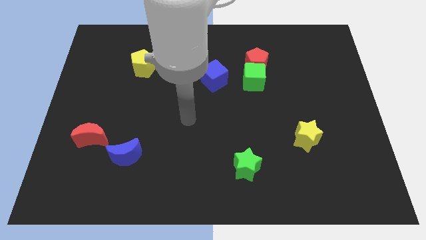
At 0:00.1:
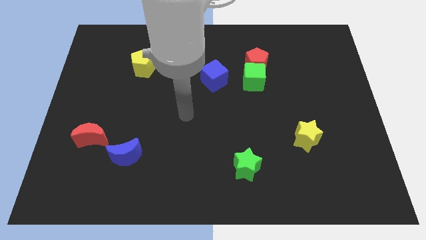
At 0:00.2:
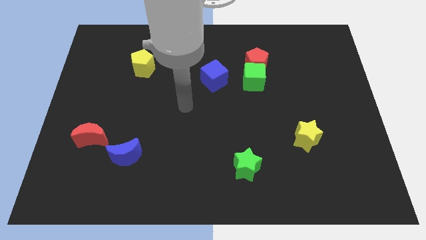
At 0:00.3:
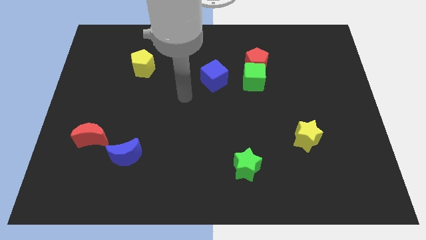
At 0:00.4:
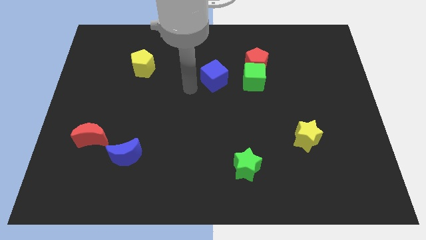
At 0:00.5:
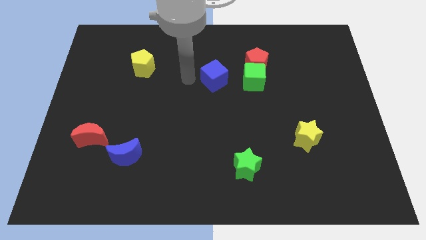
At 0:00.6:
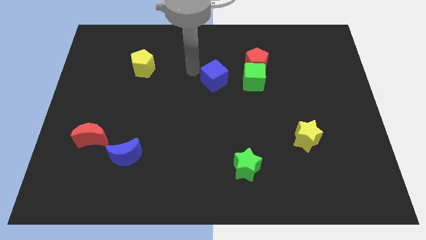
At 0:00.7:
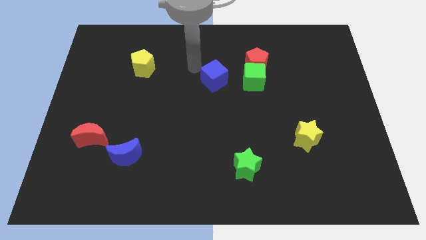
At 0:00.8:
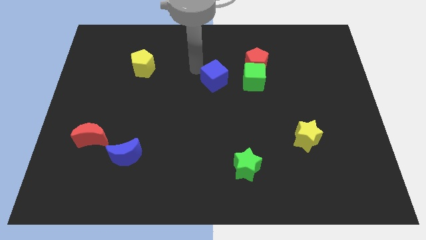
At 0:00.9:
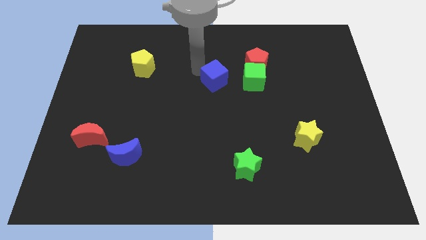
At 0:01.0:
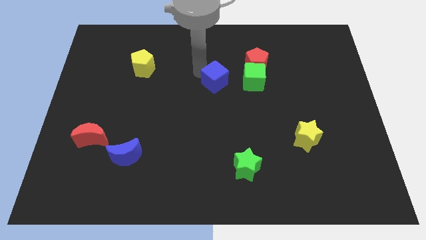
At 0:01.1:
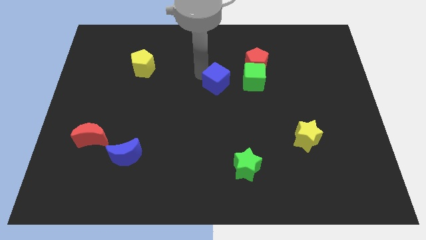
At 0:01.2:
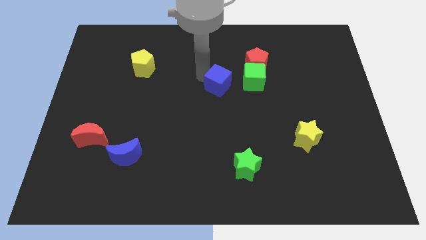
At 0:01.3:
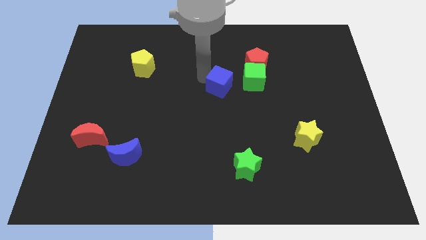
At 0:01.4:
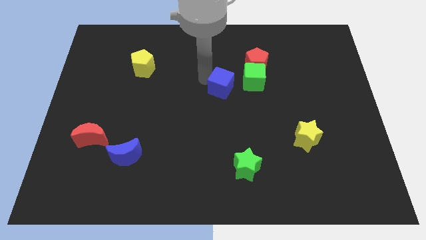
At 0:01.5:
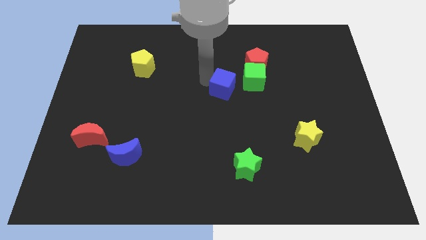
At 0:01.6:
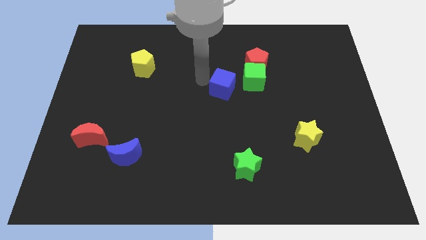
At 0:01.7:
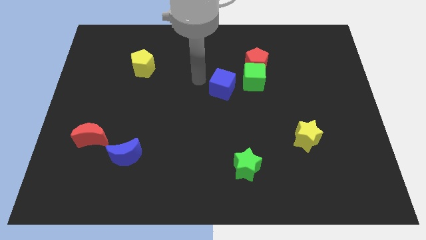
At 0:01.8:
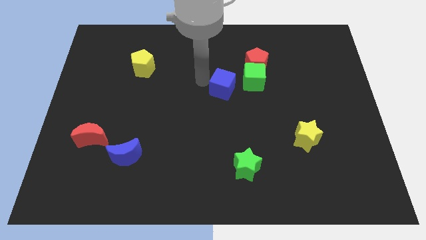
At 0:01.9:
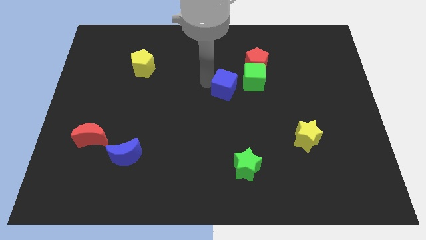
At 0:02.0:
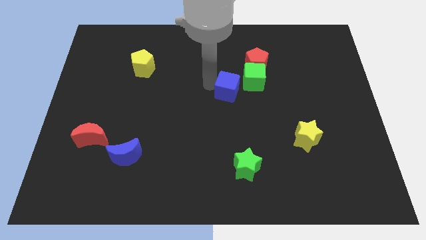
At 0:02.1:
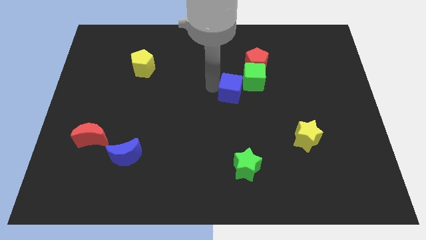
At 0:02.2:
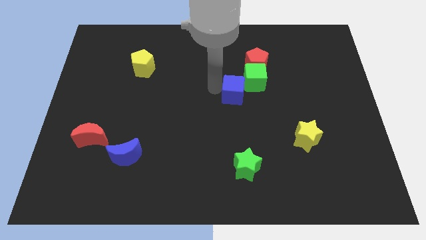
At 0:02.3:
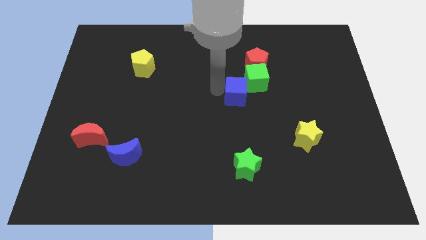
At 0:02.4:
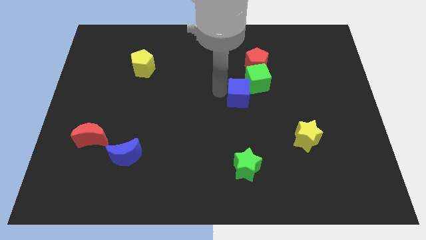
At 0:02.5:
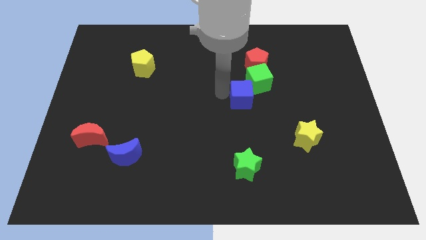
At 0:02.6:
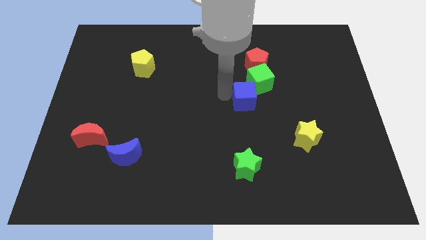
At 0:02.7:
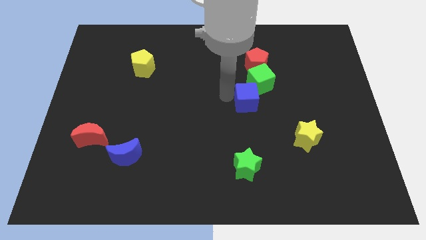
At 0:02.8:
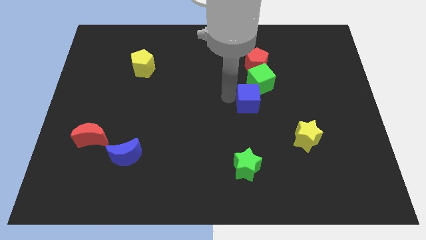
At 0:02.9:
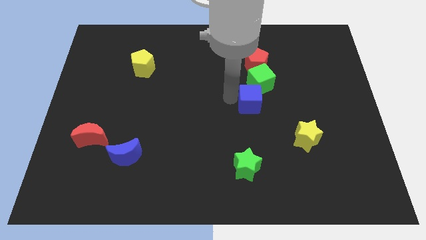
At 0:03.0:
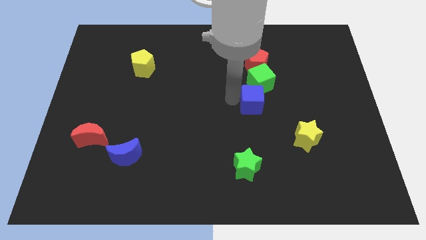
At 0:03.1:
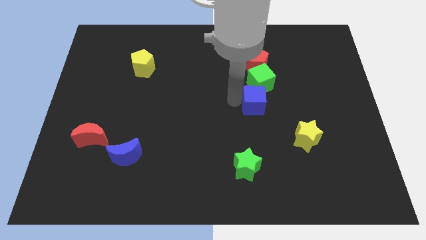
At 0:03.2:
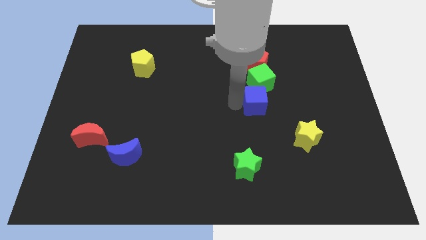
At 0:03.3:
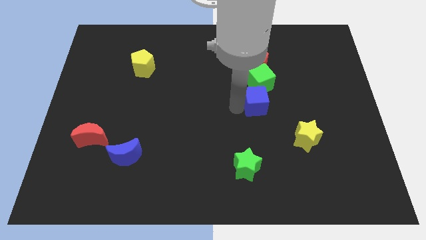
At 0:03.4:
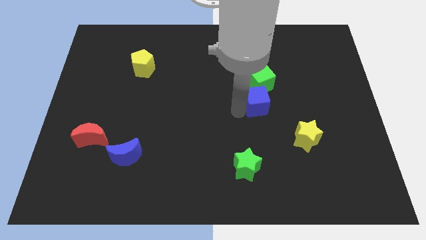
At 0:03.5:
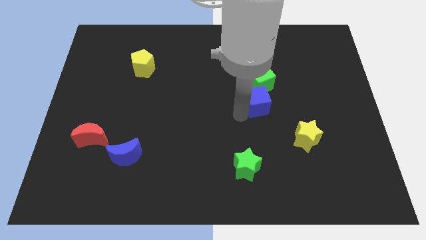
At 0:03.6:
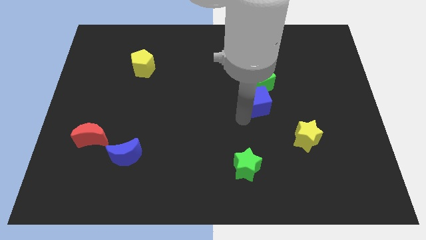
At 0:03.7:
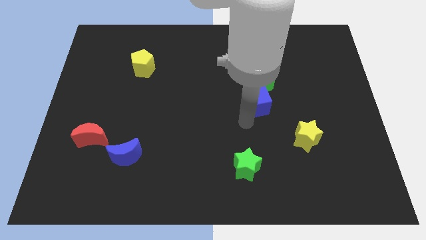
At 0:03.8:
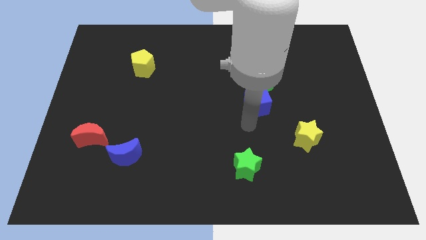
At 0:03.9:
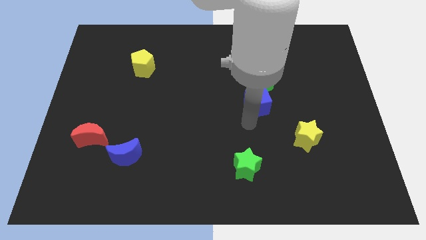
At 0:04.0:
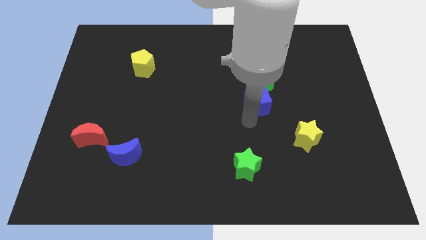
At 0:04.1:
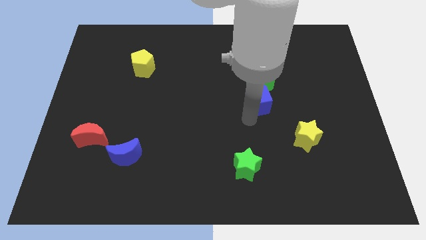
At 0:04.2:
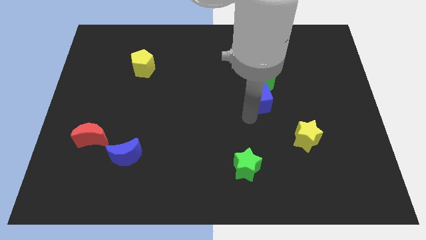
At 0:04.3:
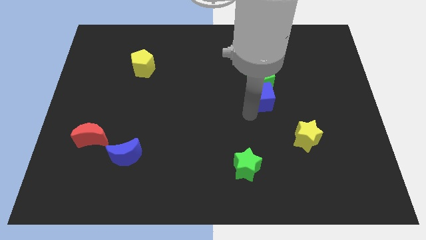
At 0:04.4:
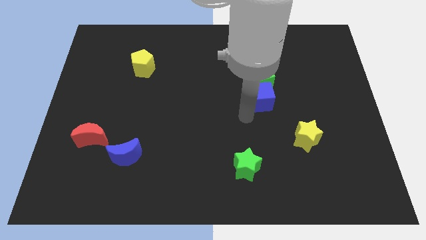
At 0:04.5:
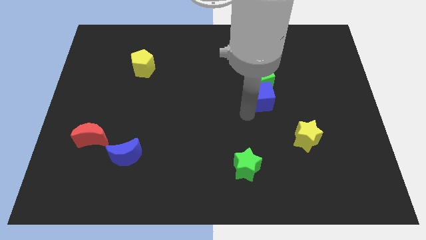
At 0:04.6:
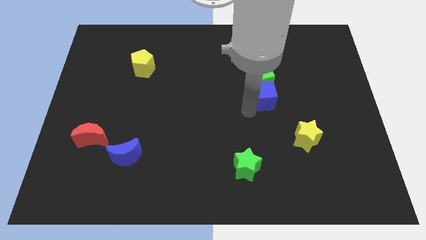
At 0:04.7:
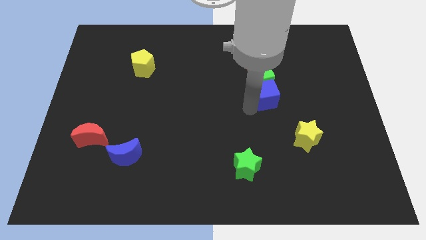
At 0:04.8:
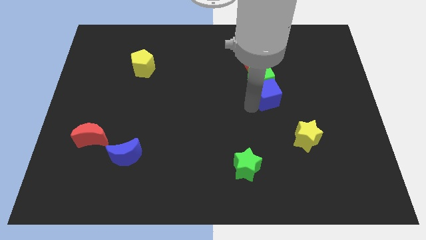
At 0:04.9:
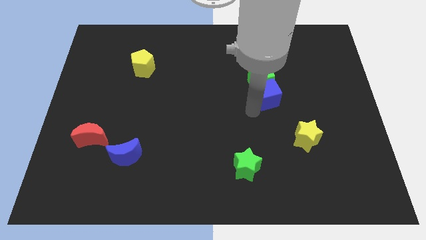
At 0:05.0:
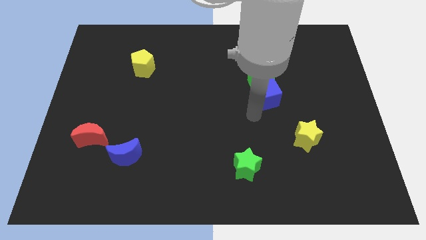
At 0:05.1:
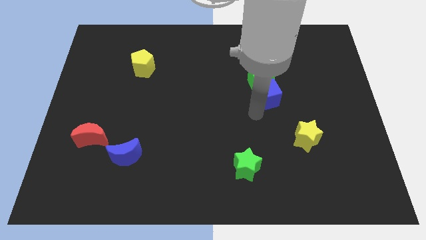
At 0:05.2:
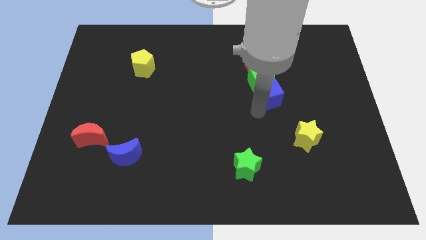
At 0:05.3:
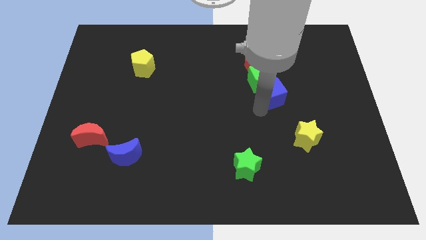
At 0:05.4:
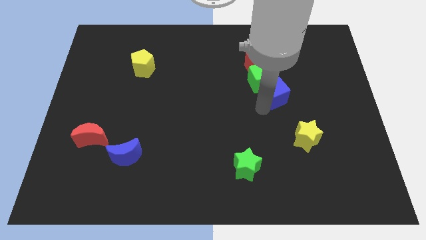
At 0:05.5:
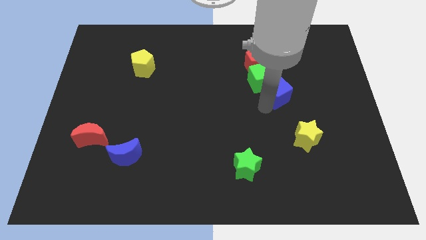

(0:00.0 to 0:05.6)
put the blue cube diagonally down and to the right of the red pentagon

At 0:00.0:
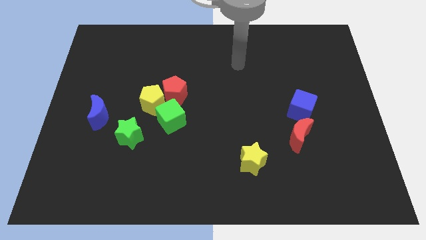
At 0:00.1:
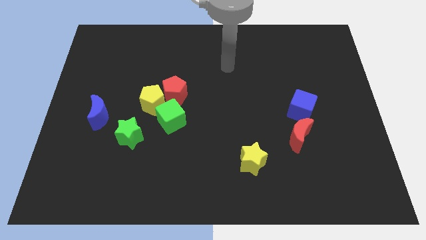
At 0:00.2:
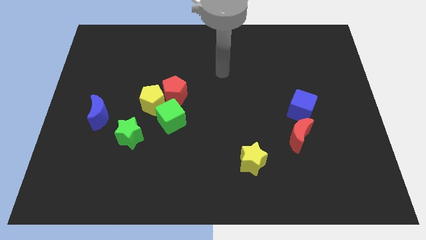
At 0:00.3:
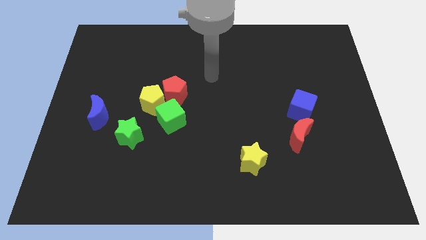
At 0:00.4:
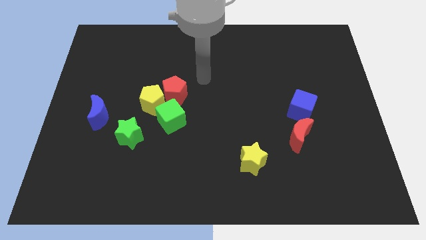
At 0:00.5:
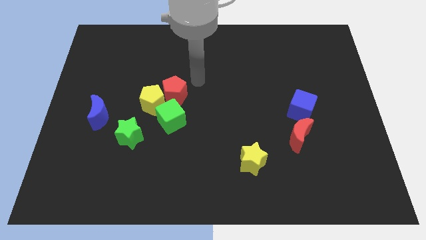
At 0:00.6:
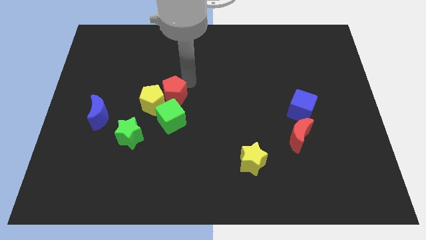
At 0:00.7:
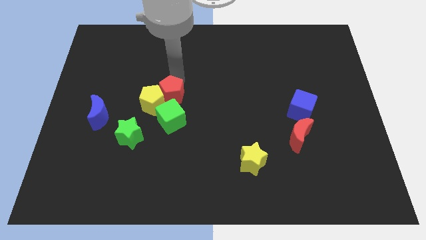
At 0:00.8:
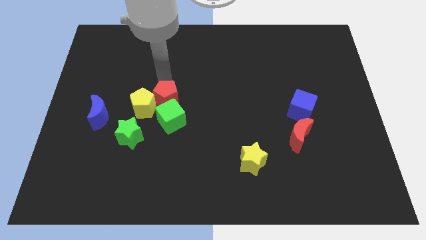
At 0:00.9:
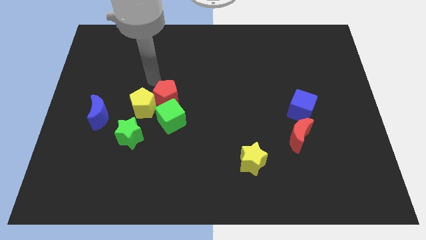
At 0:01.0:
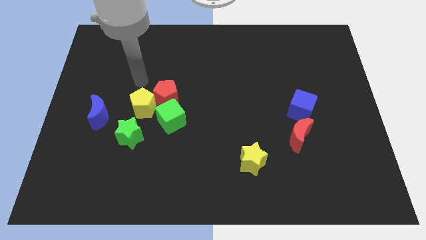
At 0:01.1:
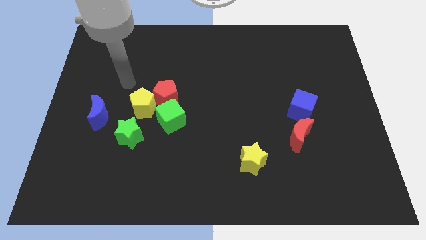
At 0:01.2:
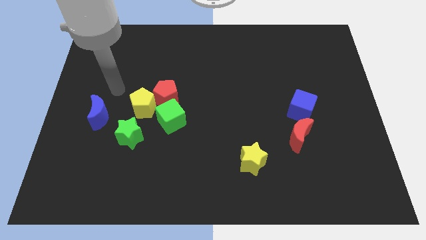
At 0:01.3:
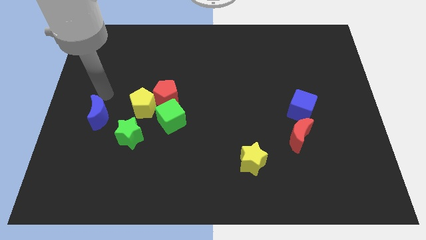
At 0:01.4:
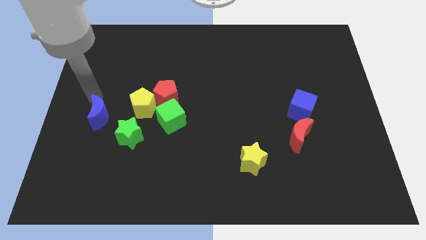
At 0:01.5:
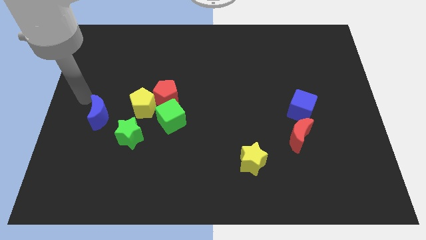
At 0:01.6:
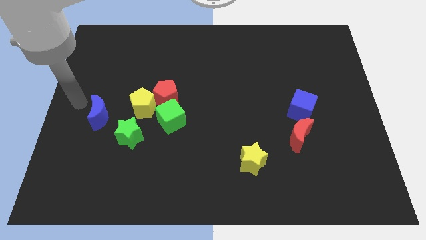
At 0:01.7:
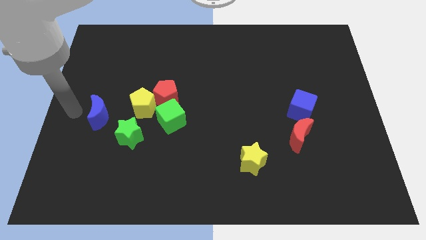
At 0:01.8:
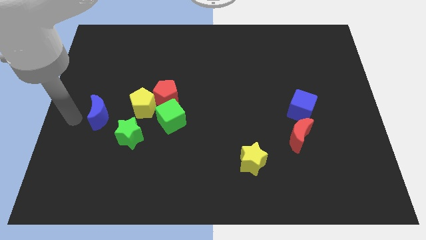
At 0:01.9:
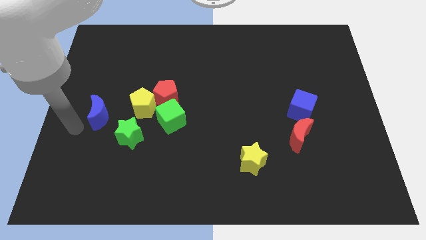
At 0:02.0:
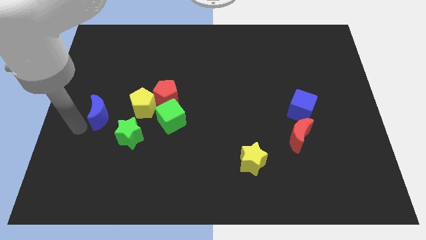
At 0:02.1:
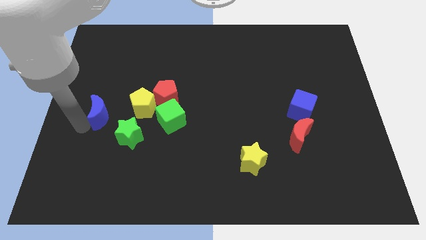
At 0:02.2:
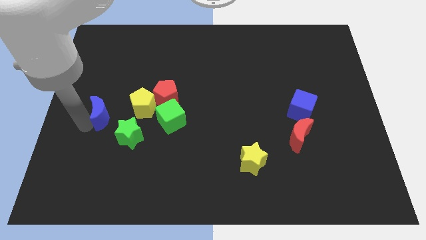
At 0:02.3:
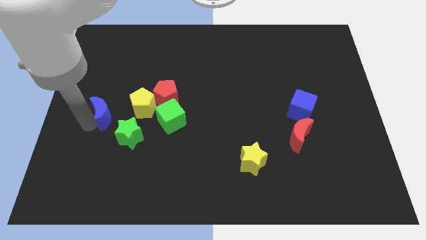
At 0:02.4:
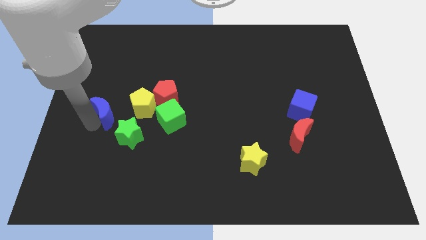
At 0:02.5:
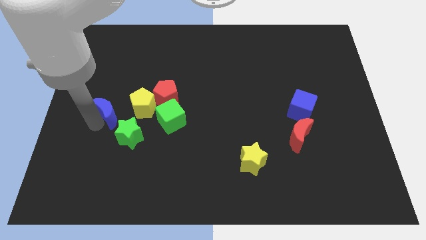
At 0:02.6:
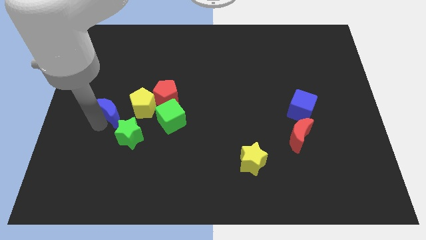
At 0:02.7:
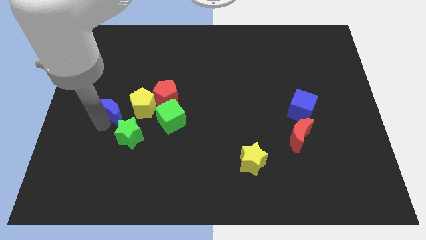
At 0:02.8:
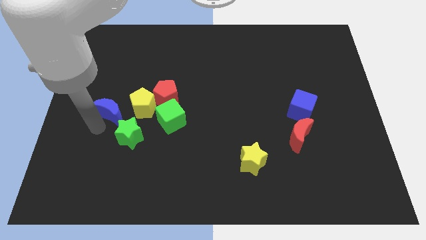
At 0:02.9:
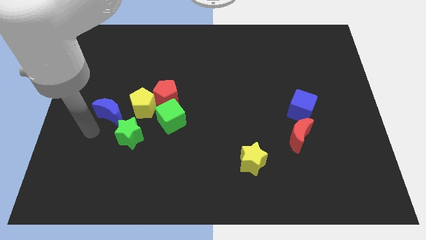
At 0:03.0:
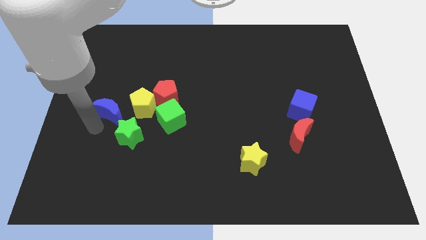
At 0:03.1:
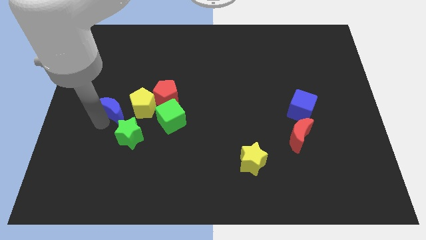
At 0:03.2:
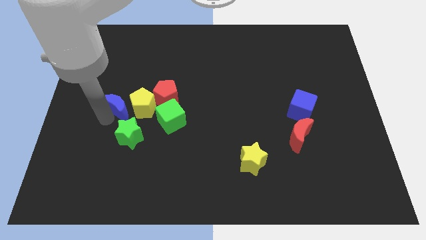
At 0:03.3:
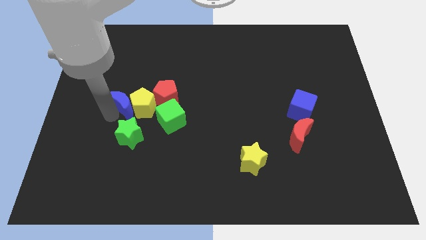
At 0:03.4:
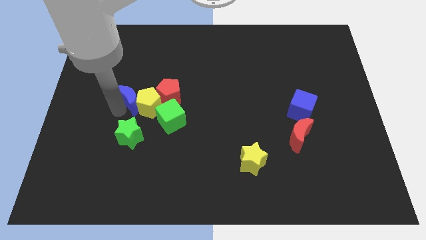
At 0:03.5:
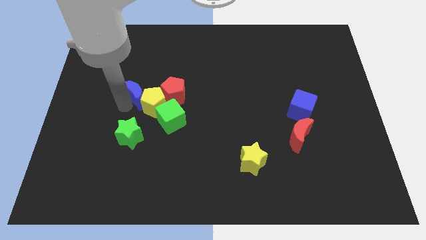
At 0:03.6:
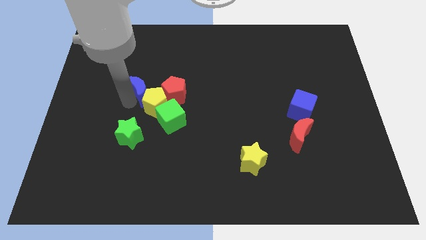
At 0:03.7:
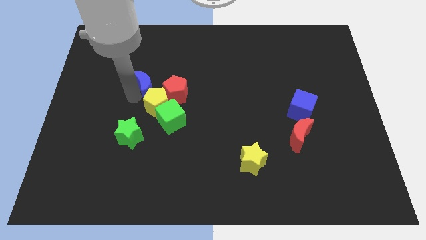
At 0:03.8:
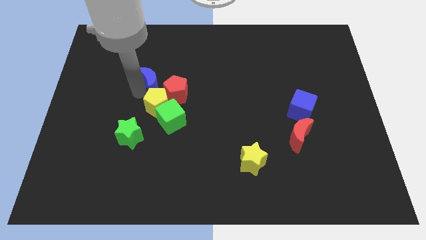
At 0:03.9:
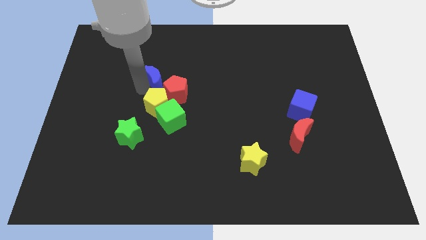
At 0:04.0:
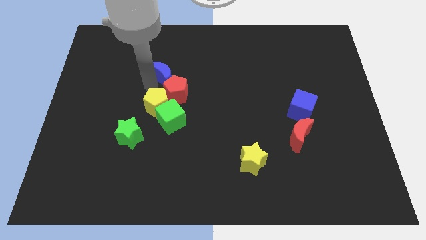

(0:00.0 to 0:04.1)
move the blue moon above the red pentagon
